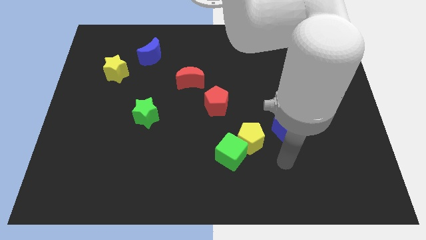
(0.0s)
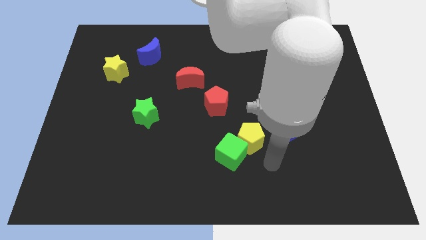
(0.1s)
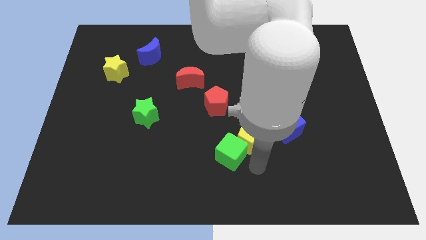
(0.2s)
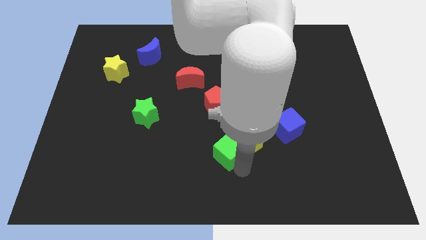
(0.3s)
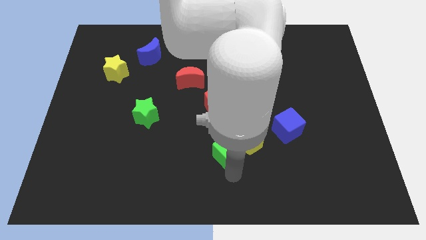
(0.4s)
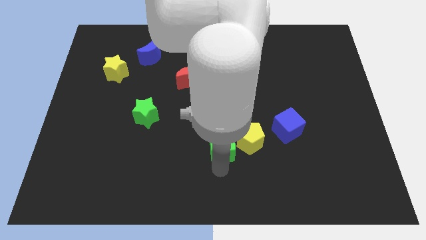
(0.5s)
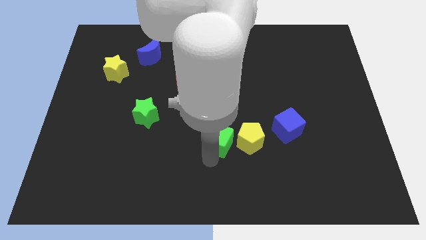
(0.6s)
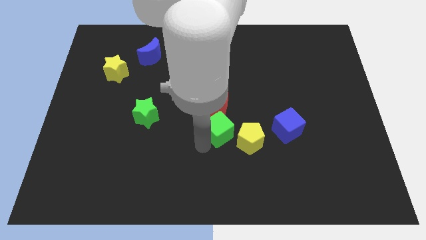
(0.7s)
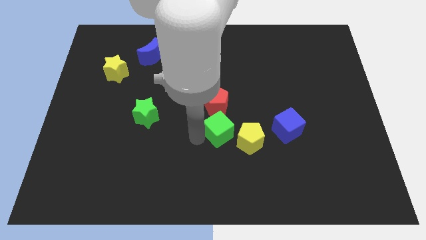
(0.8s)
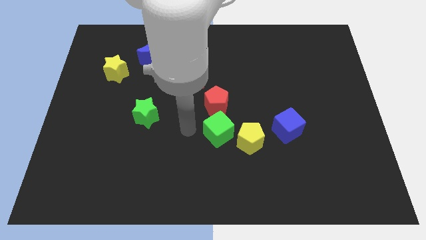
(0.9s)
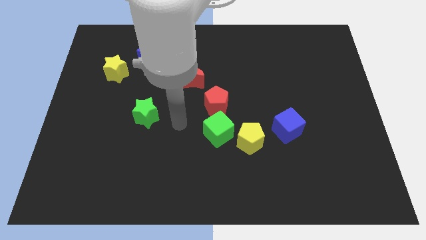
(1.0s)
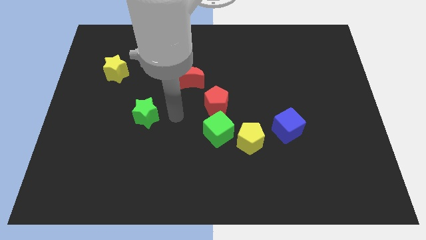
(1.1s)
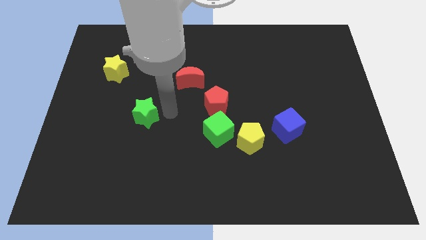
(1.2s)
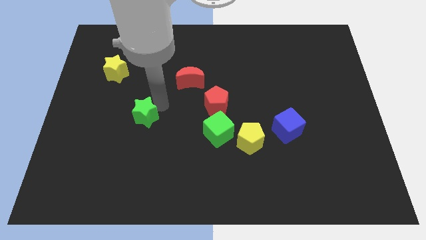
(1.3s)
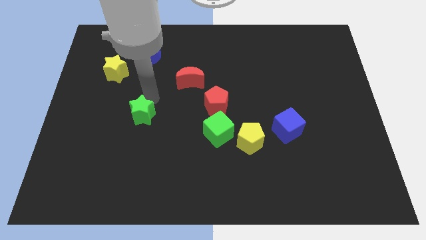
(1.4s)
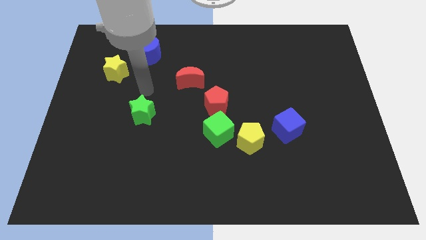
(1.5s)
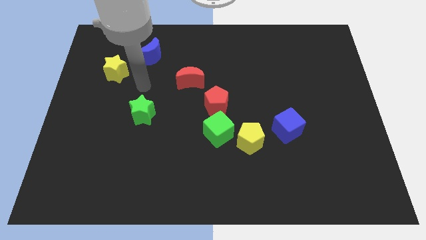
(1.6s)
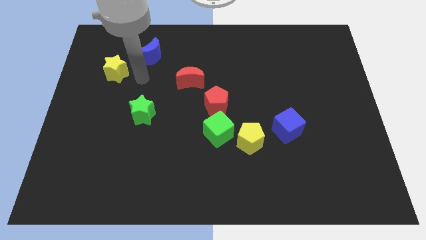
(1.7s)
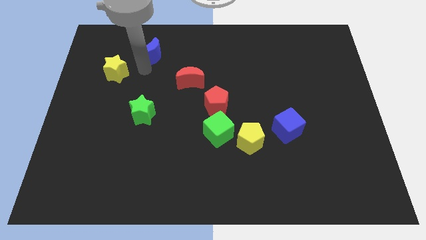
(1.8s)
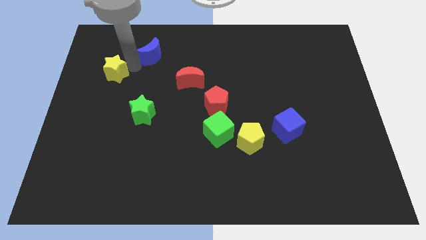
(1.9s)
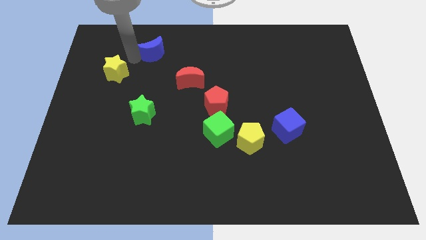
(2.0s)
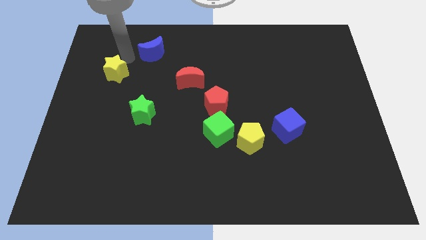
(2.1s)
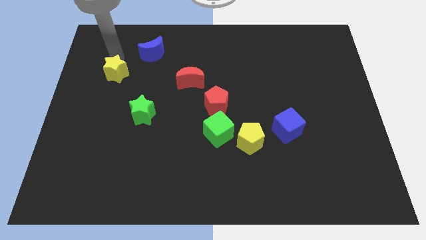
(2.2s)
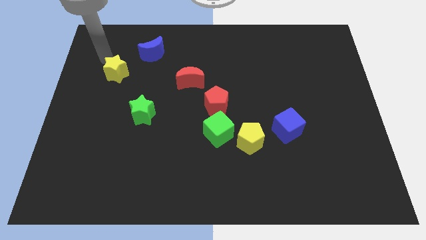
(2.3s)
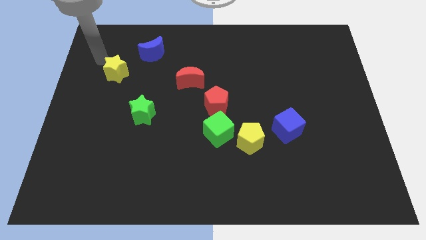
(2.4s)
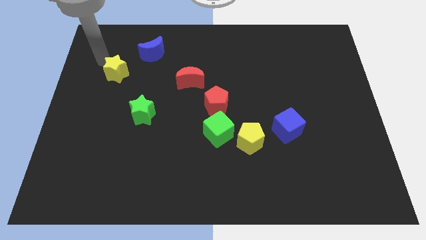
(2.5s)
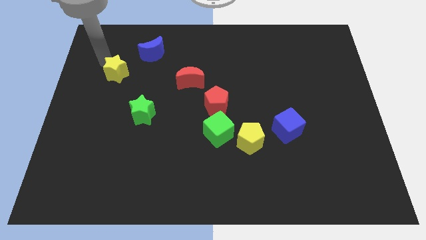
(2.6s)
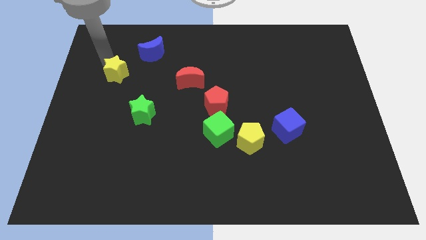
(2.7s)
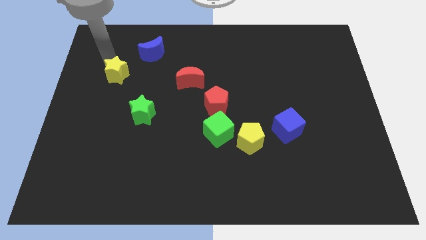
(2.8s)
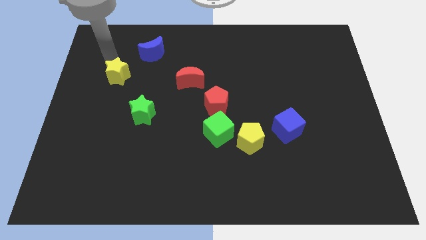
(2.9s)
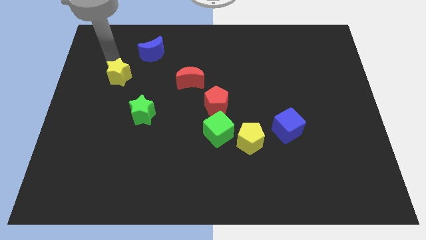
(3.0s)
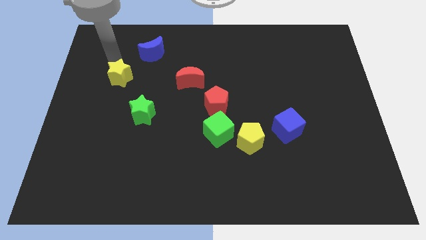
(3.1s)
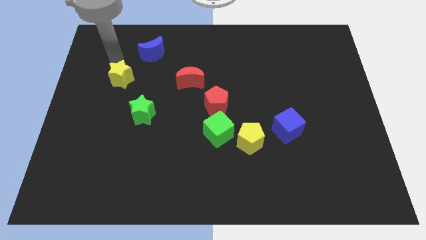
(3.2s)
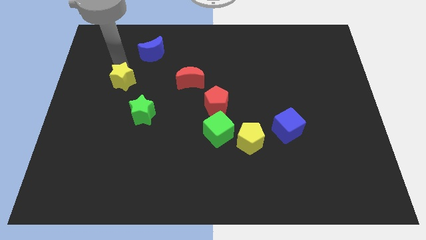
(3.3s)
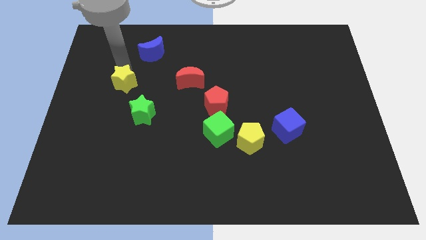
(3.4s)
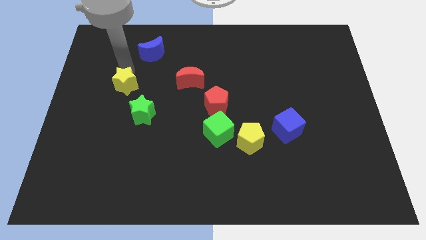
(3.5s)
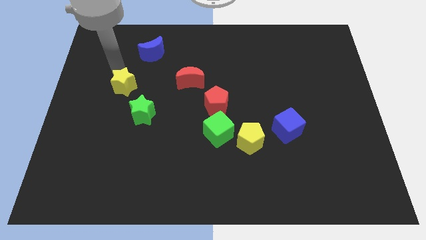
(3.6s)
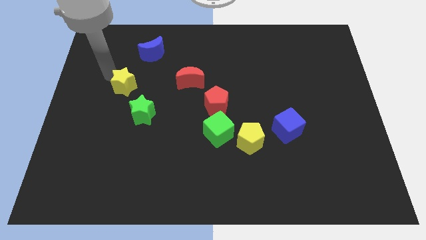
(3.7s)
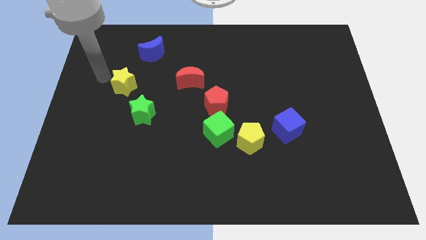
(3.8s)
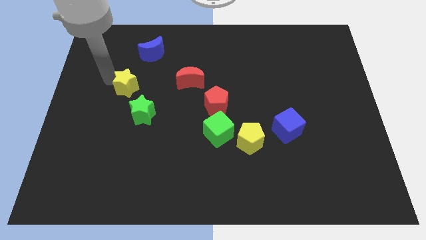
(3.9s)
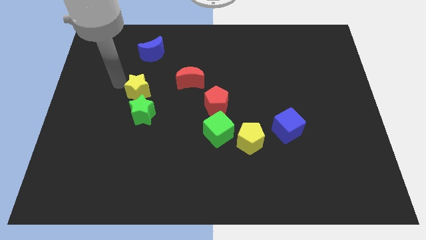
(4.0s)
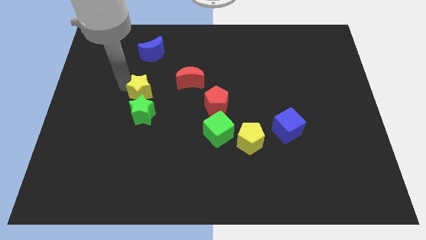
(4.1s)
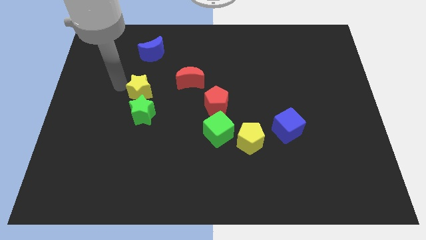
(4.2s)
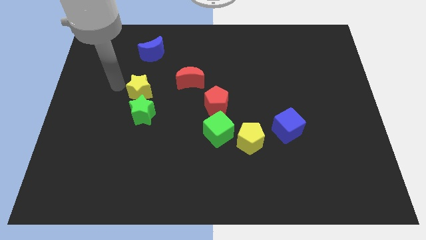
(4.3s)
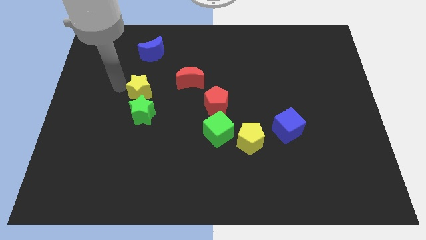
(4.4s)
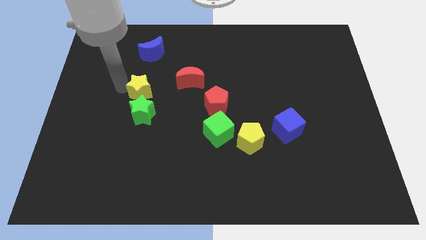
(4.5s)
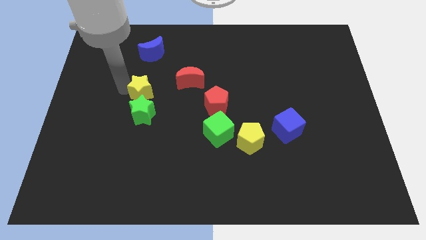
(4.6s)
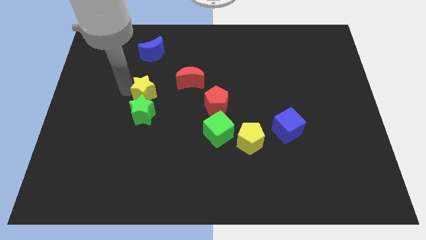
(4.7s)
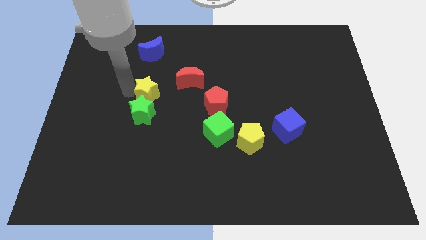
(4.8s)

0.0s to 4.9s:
slide the yellow star diagonally down and to the left of the red moon

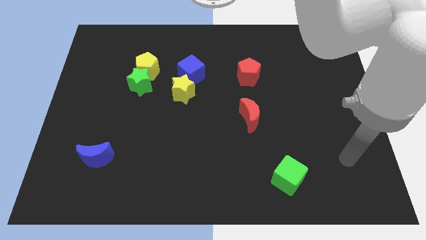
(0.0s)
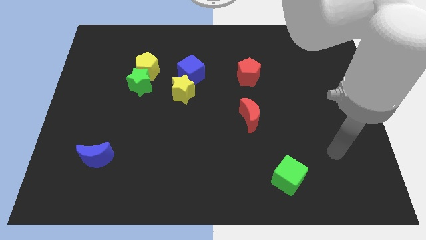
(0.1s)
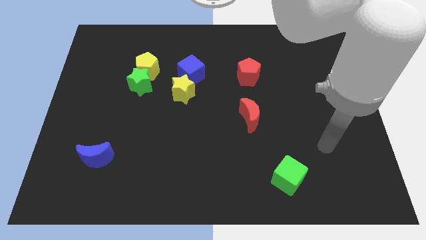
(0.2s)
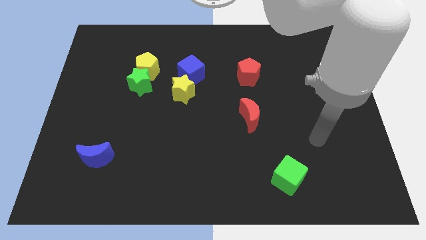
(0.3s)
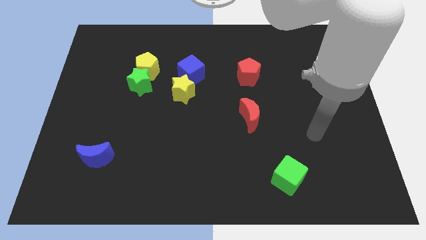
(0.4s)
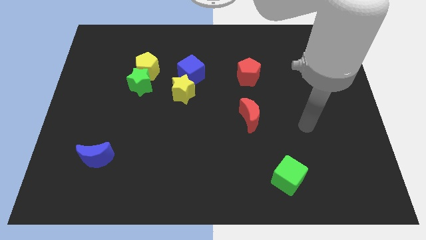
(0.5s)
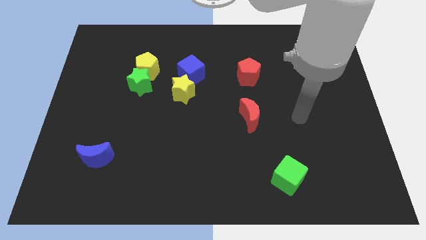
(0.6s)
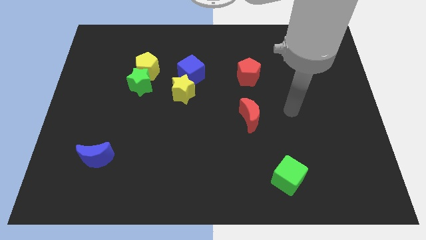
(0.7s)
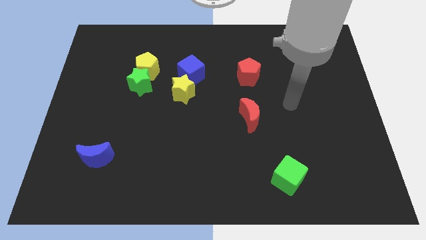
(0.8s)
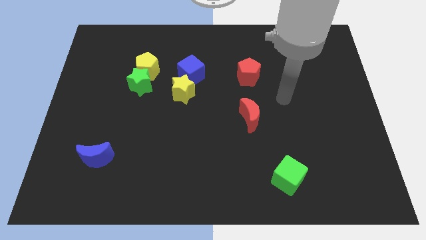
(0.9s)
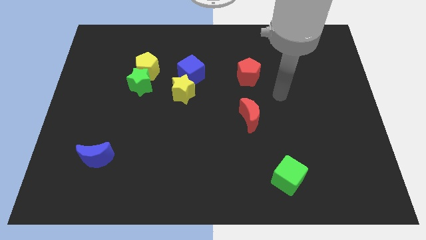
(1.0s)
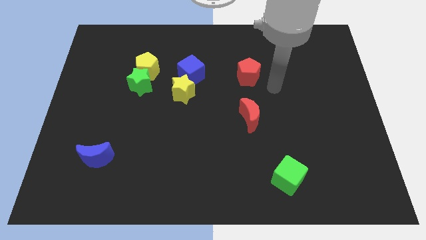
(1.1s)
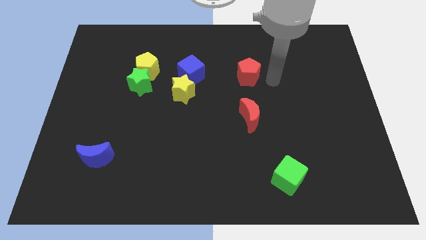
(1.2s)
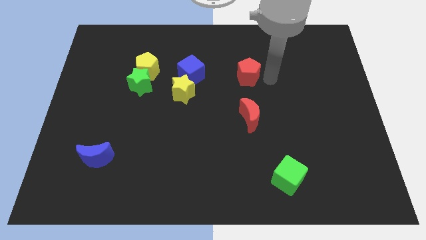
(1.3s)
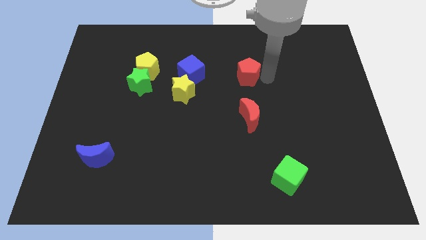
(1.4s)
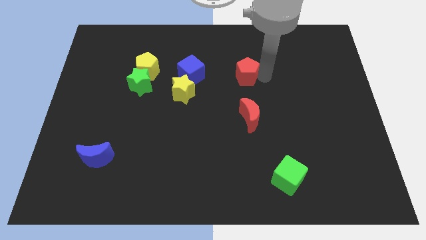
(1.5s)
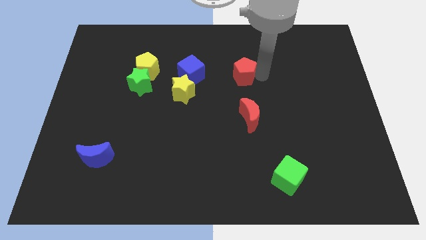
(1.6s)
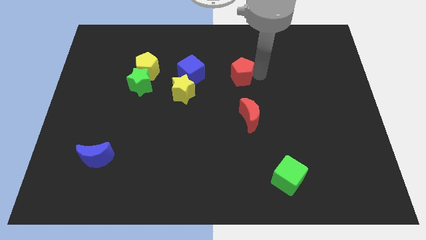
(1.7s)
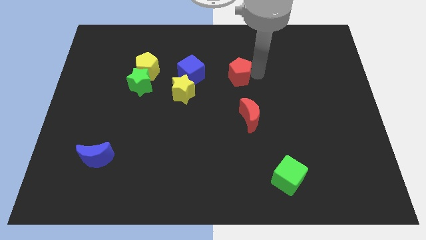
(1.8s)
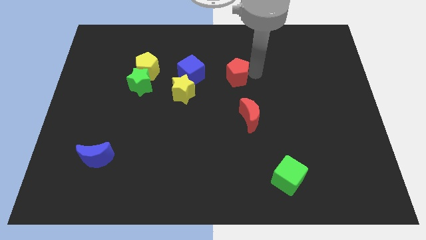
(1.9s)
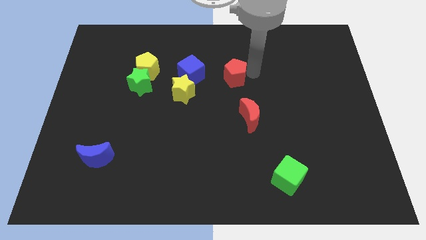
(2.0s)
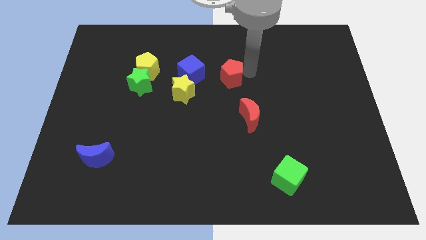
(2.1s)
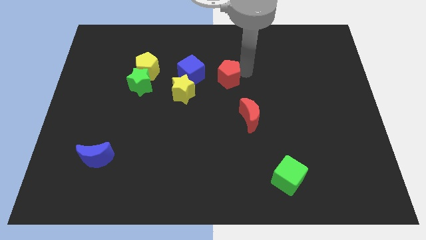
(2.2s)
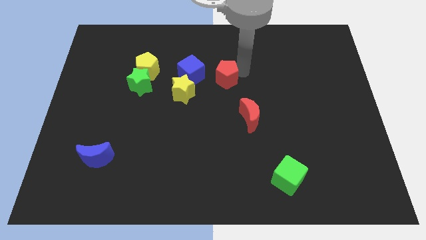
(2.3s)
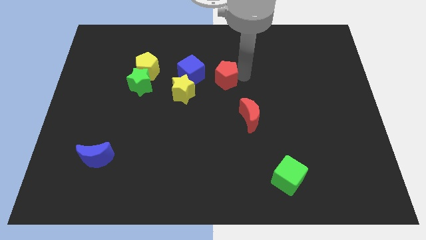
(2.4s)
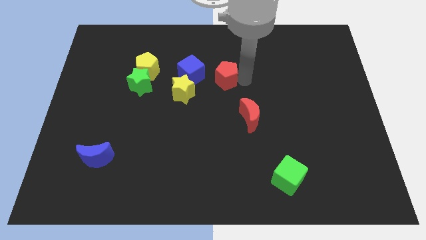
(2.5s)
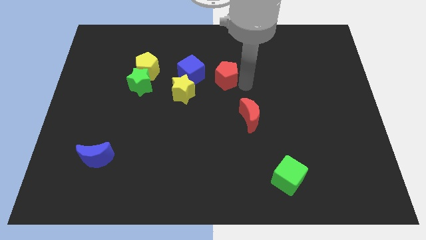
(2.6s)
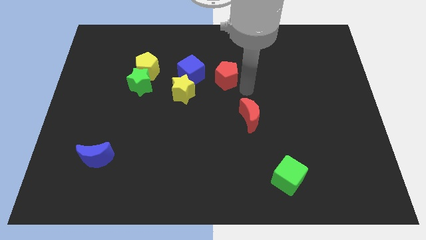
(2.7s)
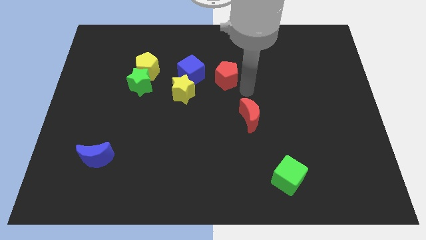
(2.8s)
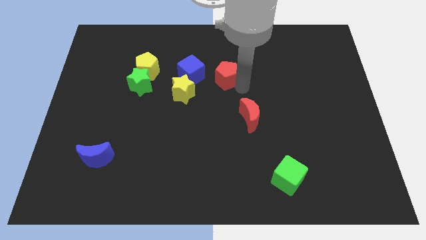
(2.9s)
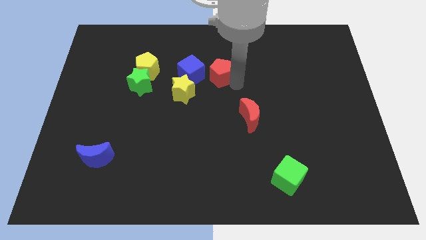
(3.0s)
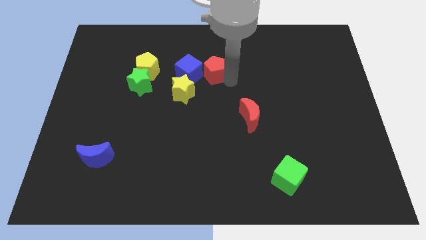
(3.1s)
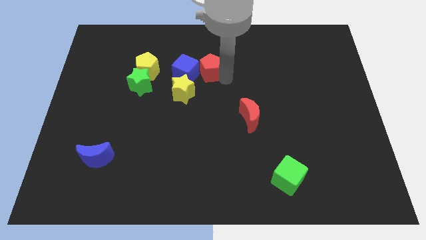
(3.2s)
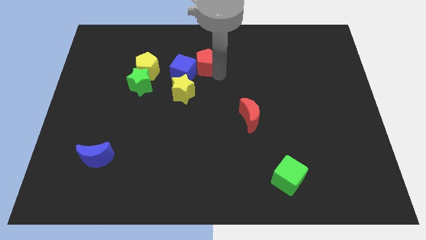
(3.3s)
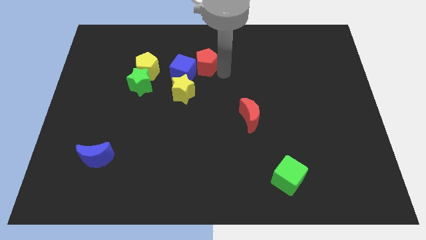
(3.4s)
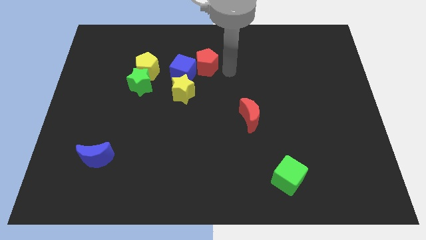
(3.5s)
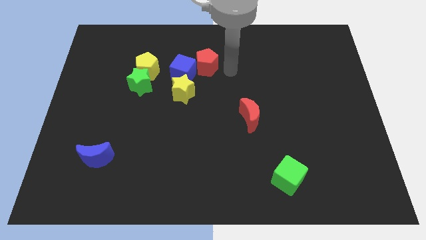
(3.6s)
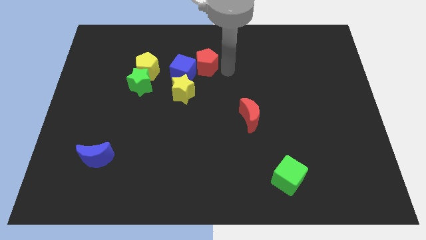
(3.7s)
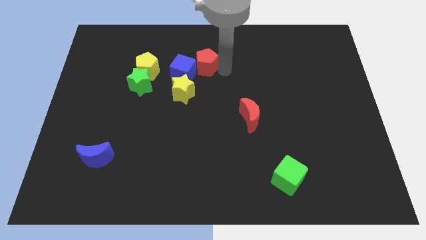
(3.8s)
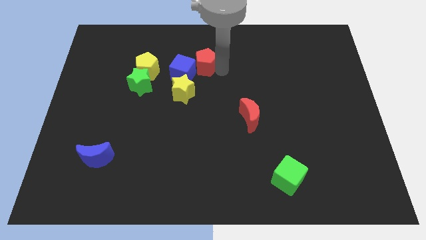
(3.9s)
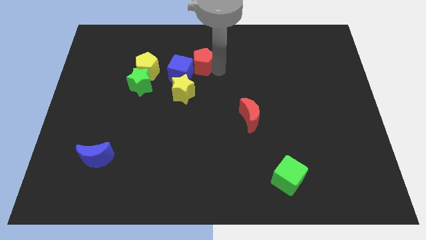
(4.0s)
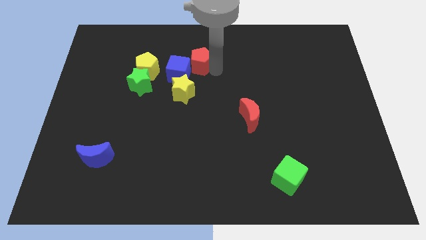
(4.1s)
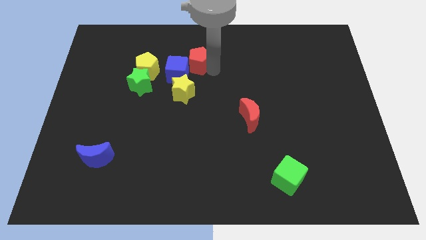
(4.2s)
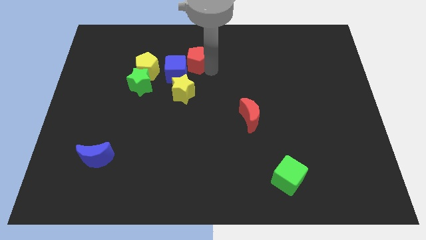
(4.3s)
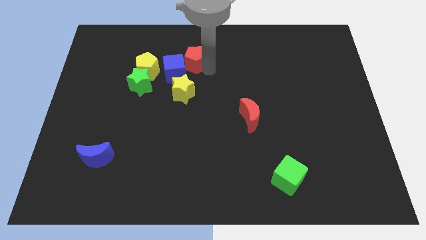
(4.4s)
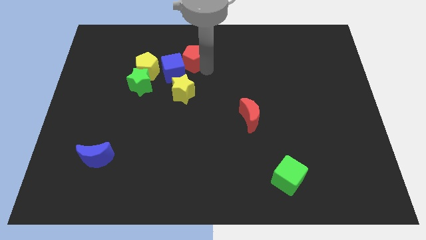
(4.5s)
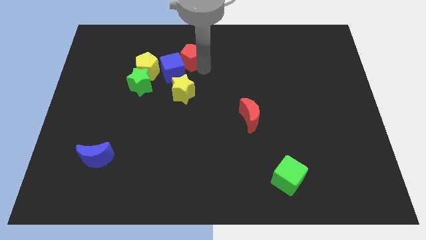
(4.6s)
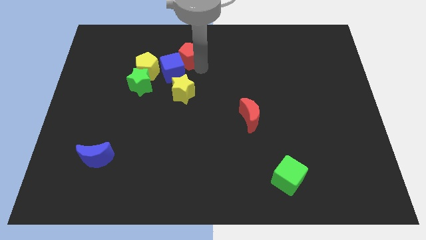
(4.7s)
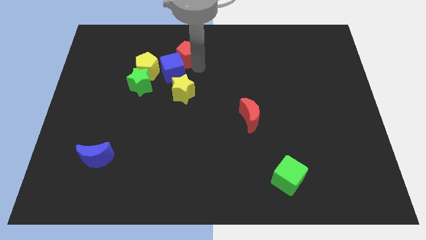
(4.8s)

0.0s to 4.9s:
slide the red pentagon to the top right of the yellow pentagon
